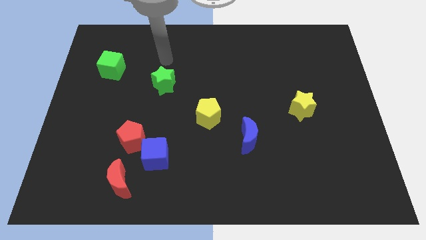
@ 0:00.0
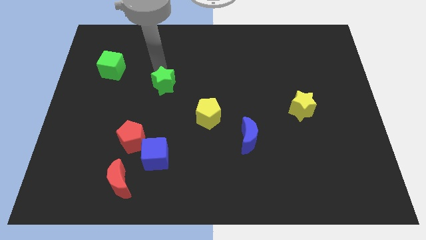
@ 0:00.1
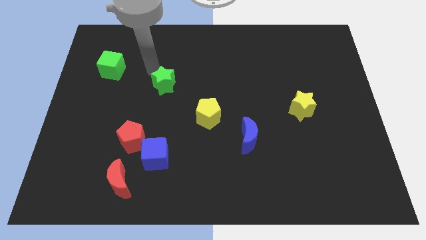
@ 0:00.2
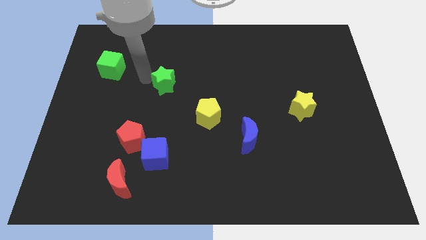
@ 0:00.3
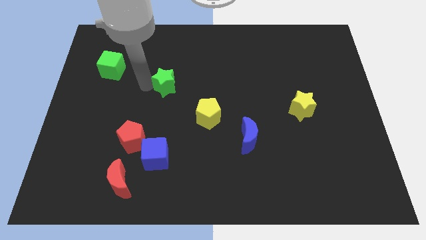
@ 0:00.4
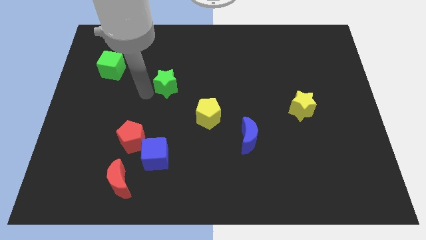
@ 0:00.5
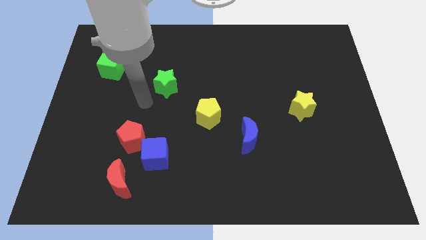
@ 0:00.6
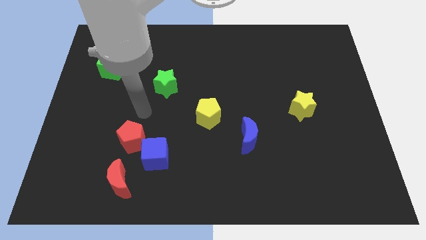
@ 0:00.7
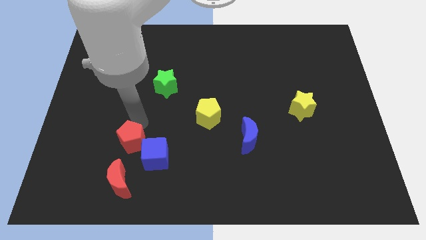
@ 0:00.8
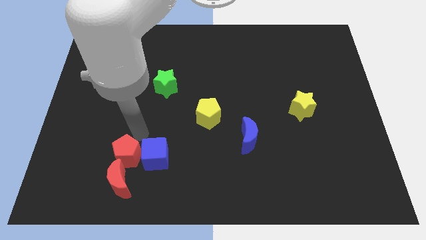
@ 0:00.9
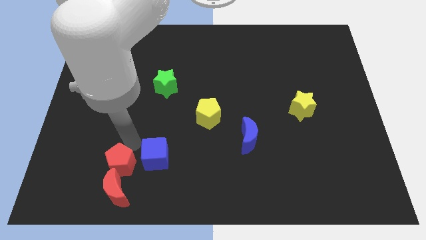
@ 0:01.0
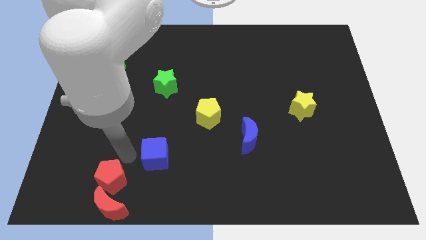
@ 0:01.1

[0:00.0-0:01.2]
separate the blue cube from the red pentagon and red moon

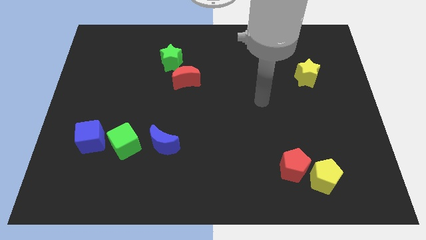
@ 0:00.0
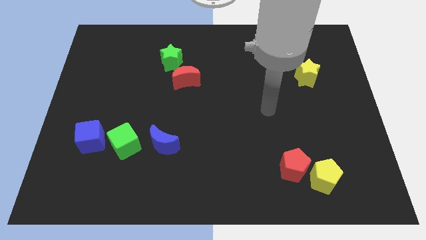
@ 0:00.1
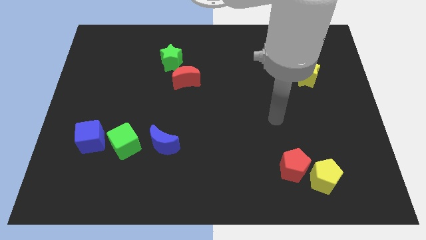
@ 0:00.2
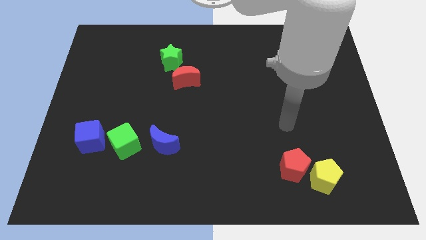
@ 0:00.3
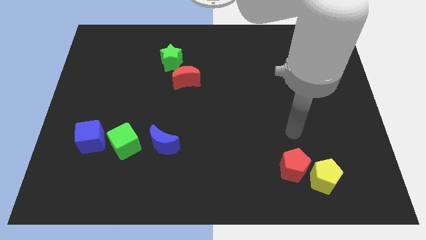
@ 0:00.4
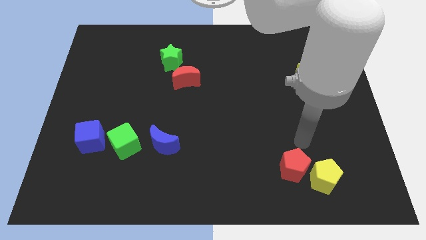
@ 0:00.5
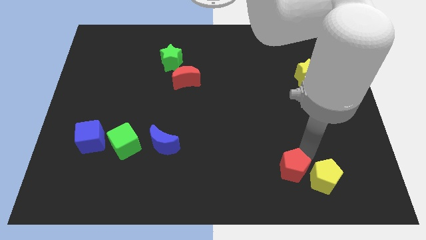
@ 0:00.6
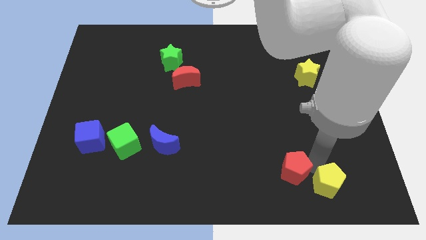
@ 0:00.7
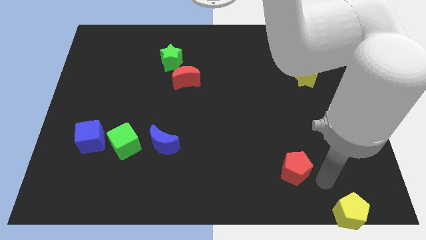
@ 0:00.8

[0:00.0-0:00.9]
pull the red pentagon apart from the yellow pentagon

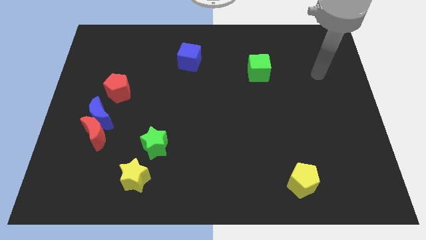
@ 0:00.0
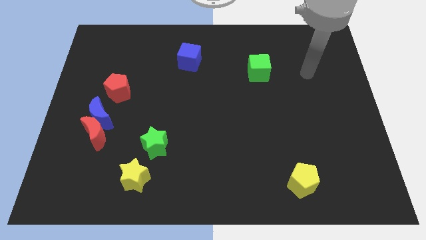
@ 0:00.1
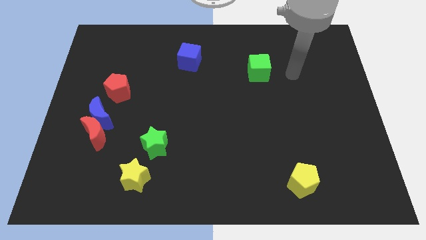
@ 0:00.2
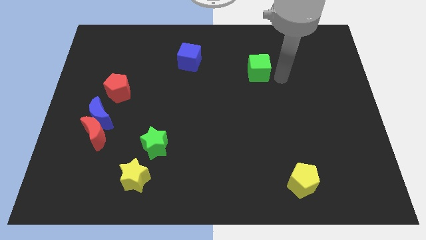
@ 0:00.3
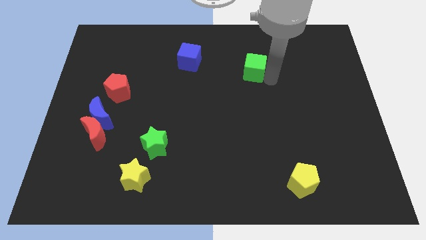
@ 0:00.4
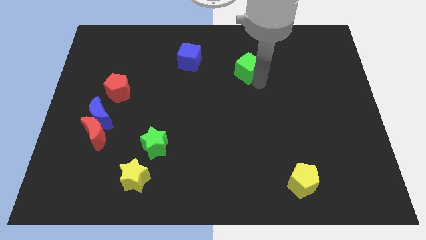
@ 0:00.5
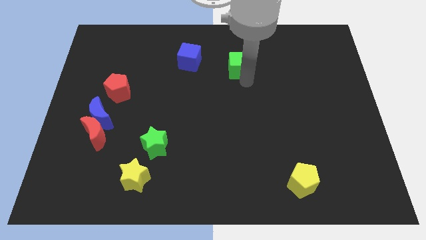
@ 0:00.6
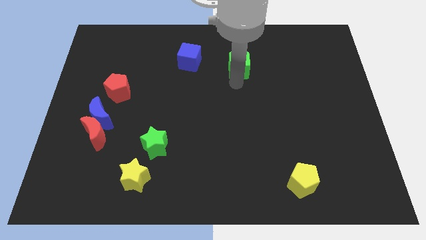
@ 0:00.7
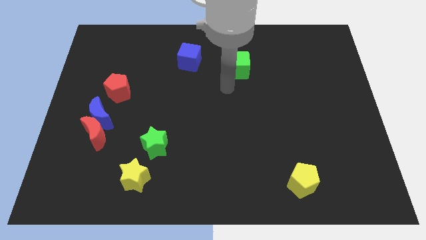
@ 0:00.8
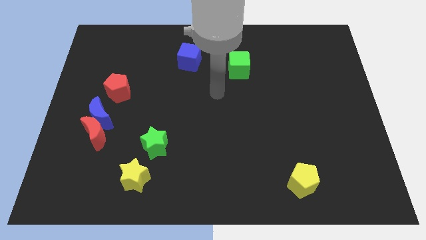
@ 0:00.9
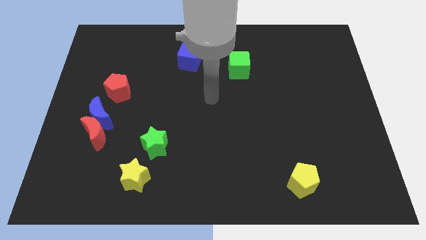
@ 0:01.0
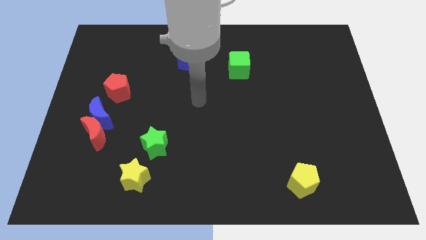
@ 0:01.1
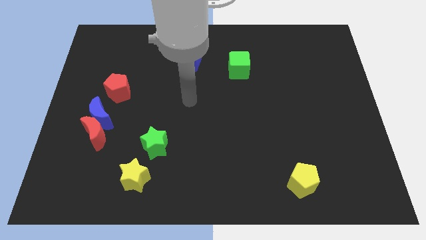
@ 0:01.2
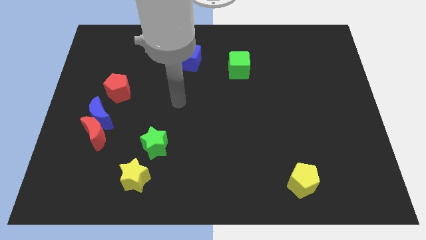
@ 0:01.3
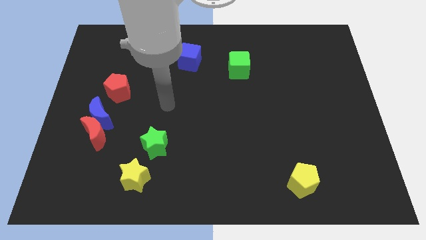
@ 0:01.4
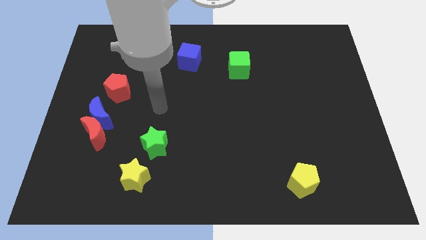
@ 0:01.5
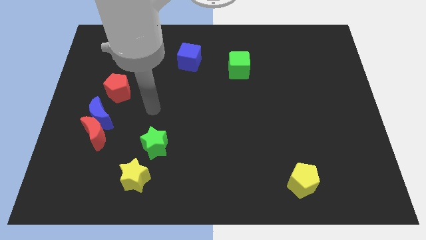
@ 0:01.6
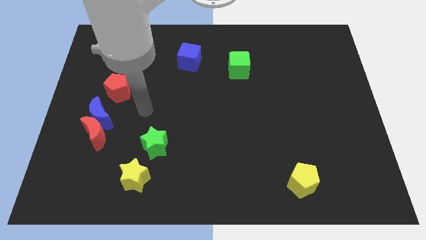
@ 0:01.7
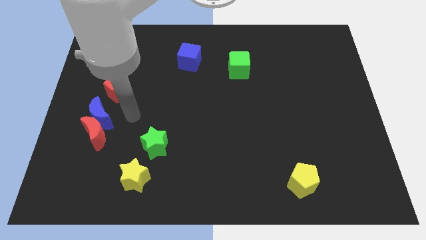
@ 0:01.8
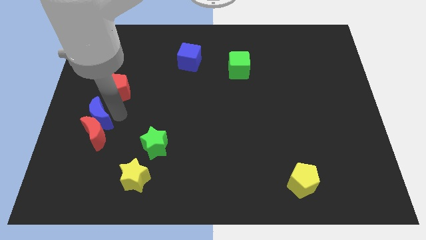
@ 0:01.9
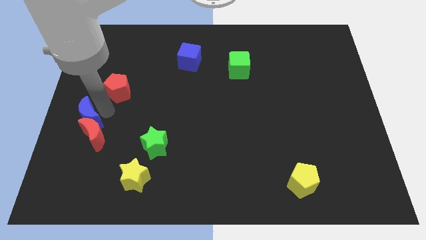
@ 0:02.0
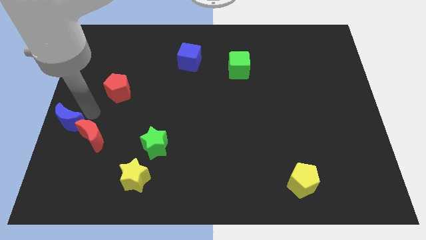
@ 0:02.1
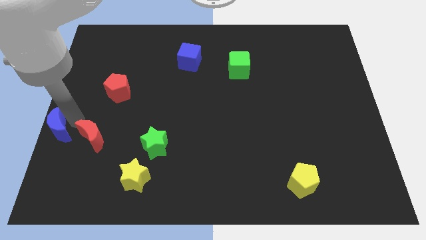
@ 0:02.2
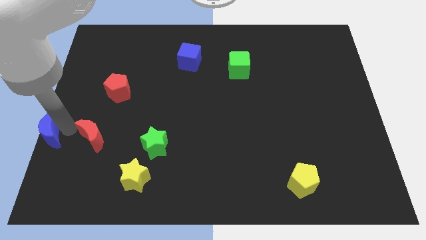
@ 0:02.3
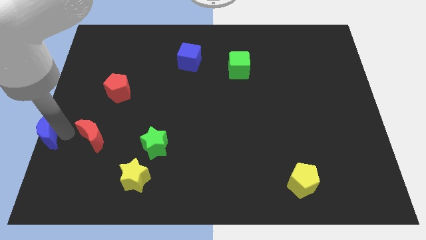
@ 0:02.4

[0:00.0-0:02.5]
move the red moon away from the blue moon

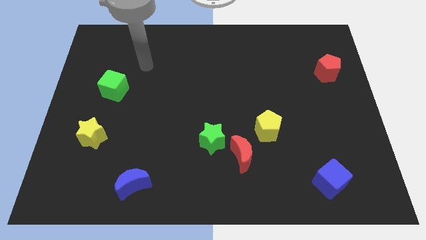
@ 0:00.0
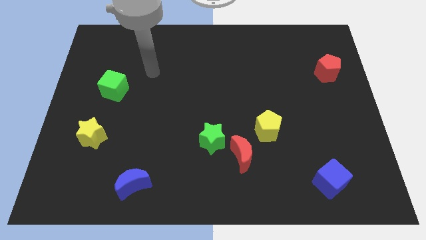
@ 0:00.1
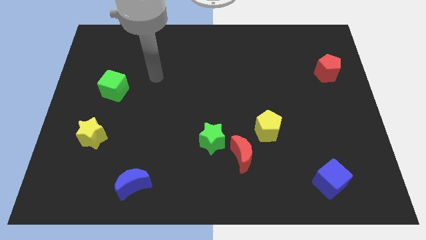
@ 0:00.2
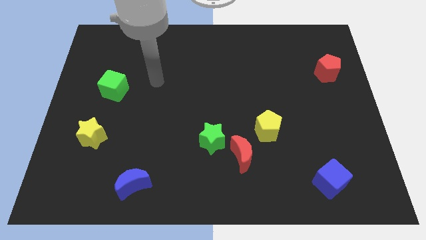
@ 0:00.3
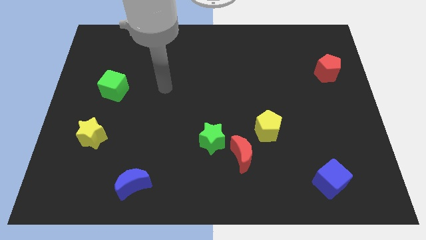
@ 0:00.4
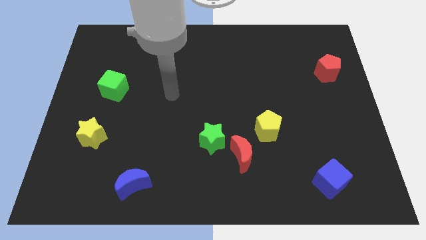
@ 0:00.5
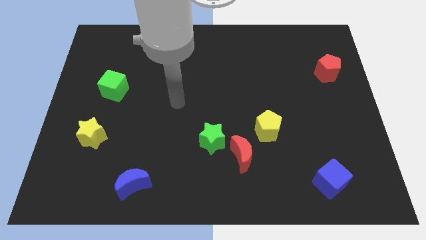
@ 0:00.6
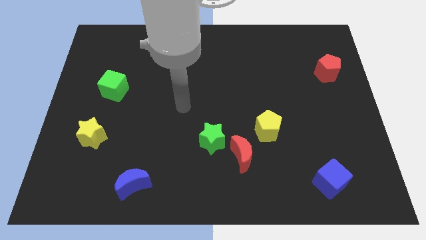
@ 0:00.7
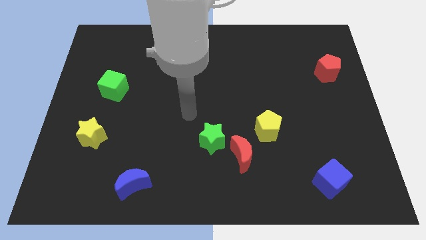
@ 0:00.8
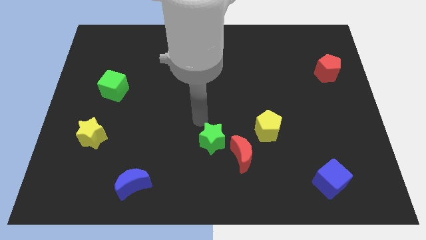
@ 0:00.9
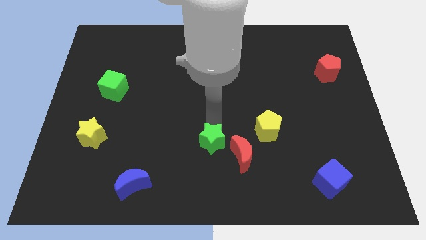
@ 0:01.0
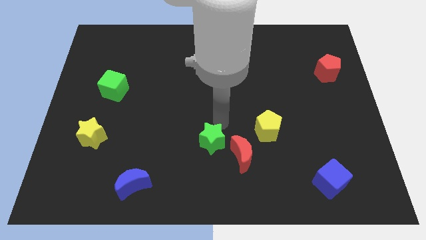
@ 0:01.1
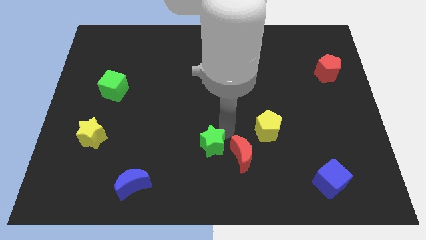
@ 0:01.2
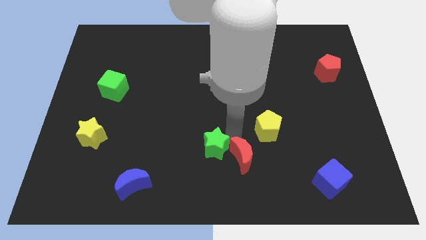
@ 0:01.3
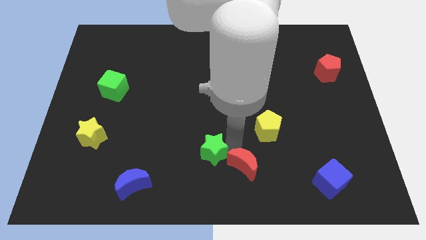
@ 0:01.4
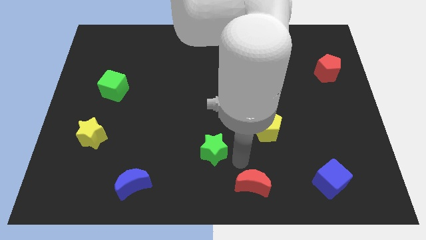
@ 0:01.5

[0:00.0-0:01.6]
pull the green star apart from the red moon

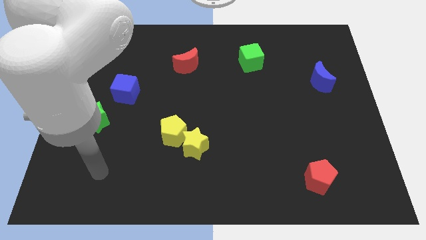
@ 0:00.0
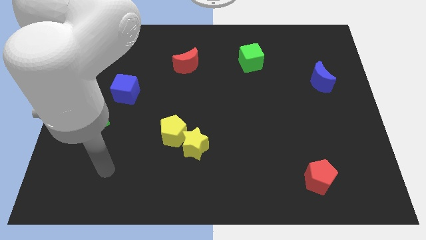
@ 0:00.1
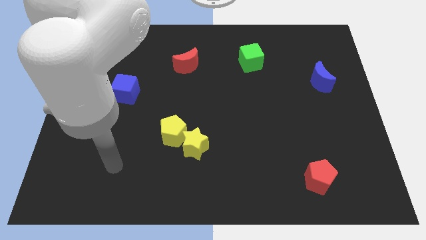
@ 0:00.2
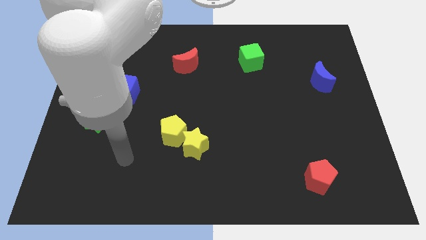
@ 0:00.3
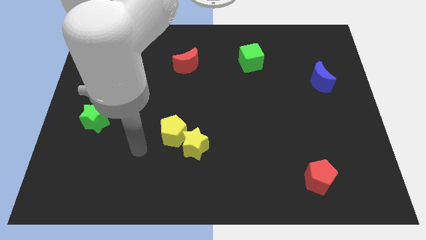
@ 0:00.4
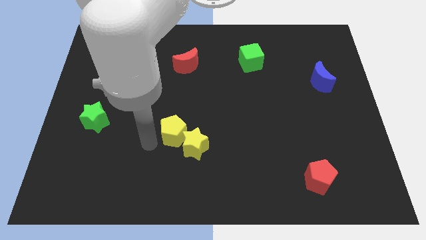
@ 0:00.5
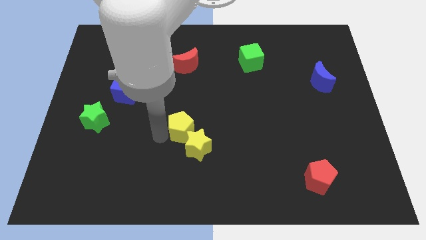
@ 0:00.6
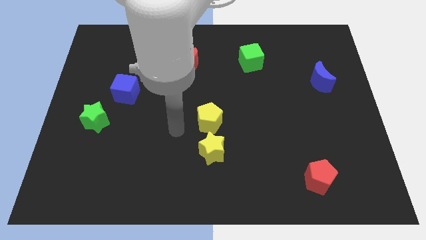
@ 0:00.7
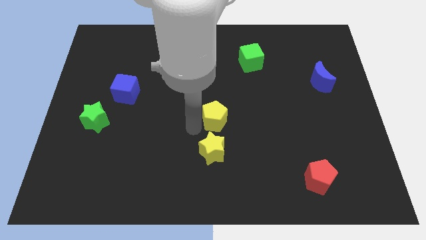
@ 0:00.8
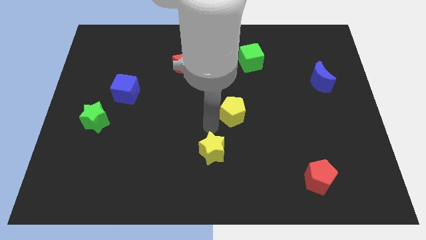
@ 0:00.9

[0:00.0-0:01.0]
separate the yellow star from the yellow pentagon

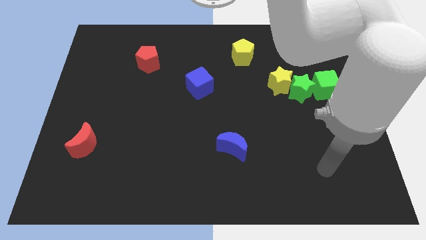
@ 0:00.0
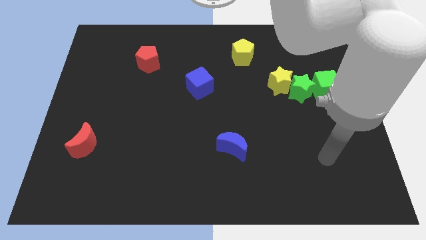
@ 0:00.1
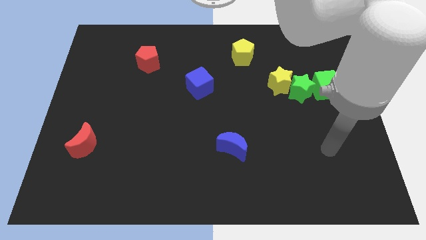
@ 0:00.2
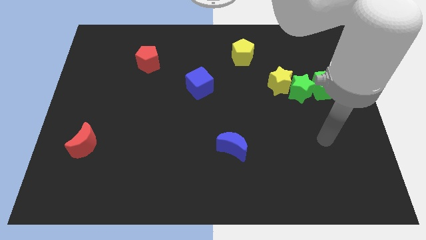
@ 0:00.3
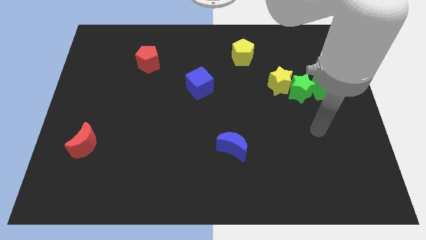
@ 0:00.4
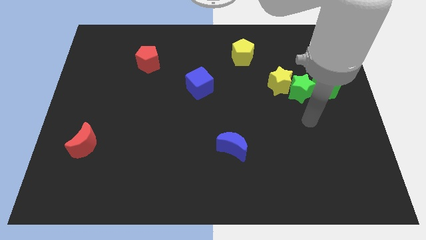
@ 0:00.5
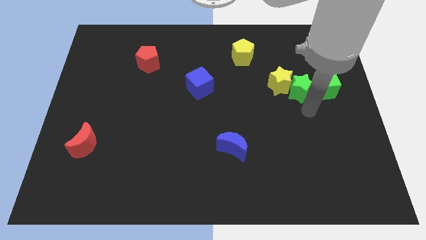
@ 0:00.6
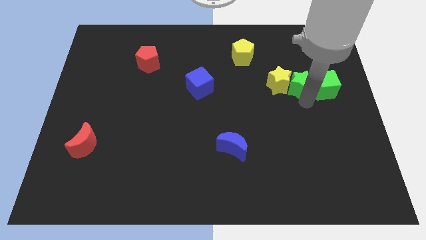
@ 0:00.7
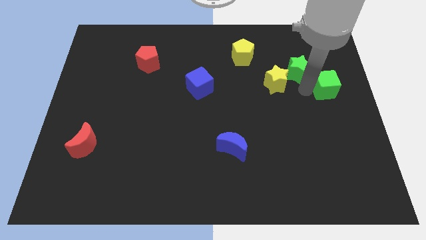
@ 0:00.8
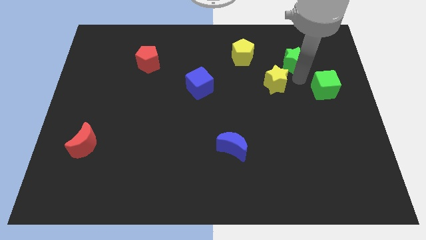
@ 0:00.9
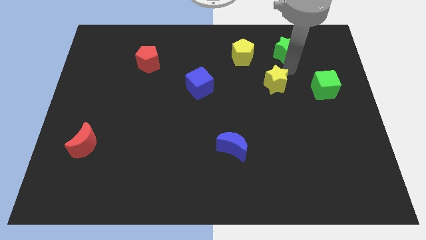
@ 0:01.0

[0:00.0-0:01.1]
pull the yellow star apart from the green star

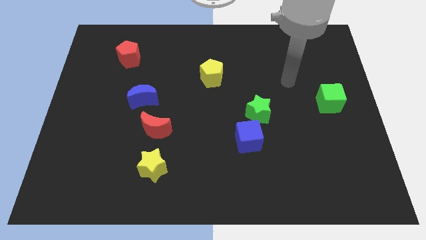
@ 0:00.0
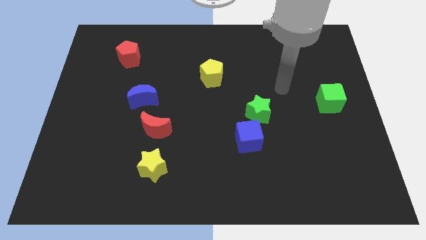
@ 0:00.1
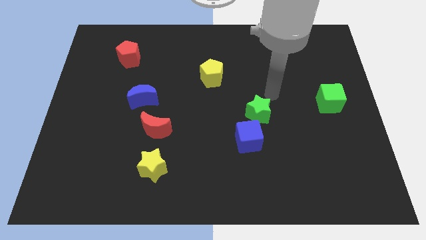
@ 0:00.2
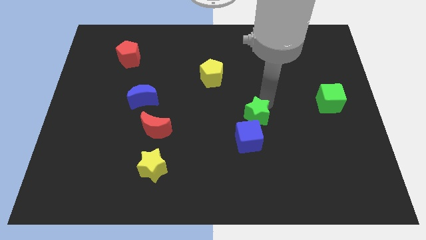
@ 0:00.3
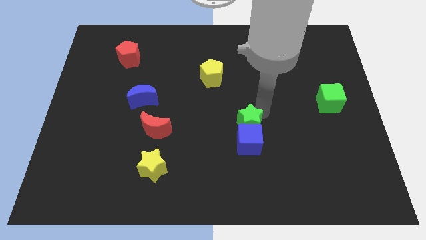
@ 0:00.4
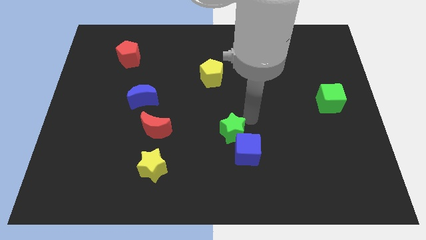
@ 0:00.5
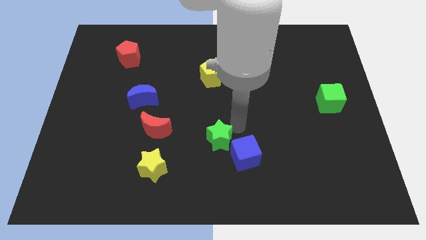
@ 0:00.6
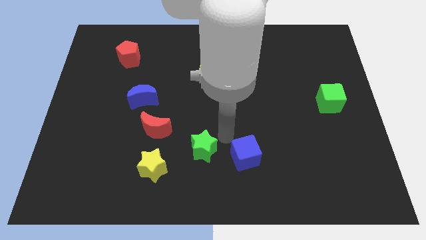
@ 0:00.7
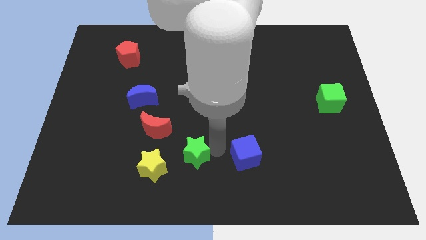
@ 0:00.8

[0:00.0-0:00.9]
move the blue cube away from the green star
